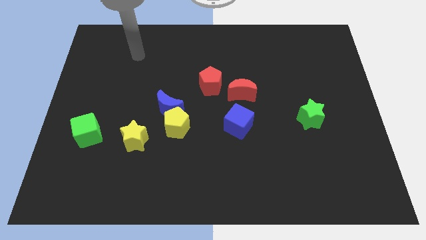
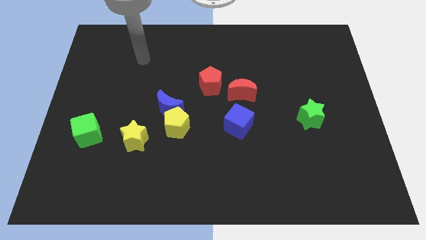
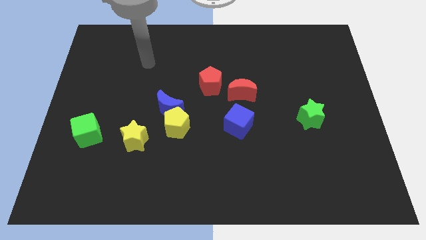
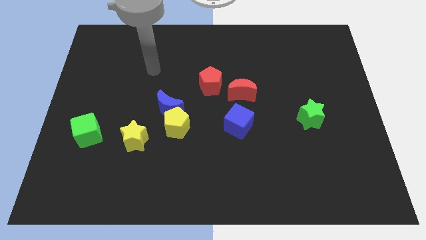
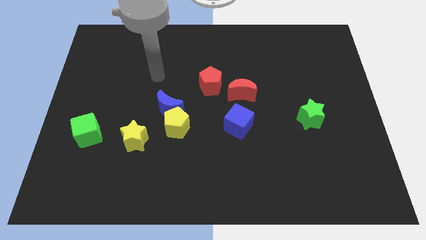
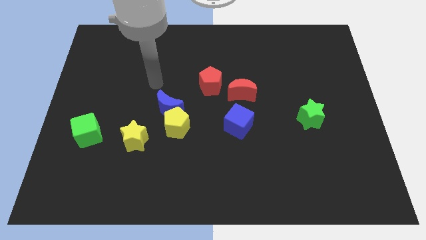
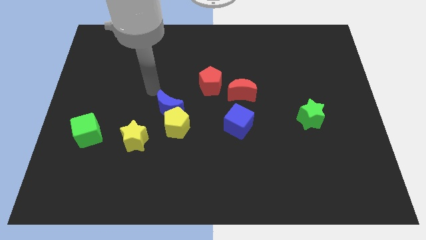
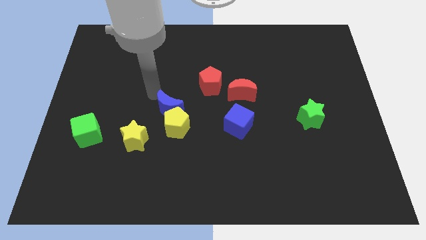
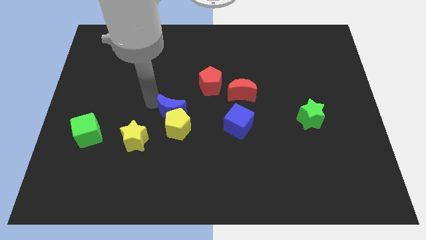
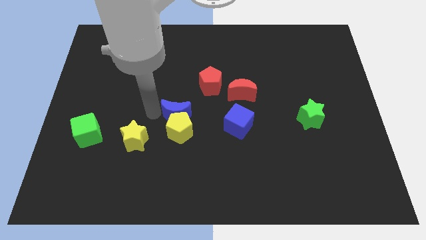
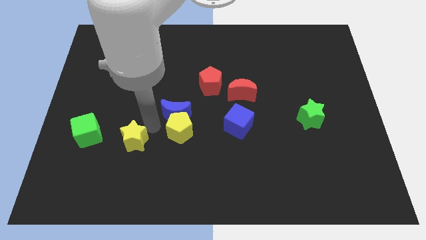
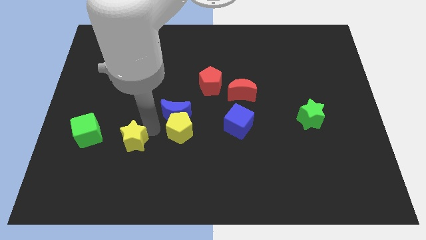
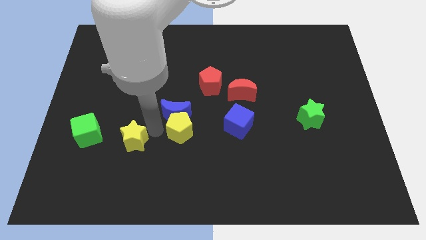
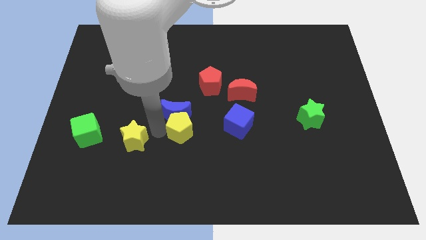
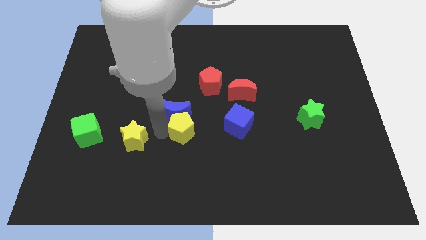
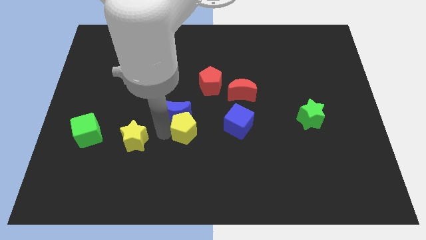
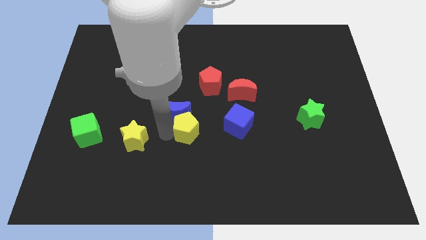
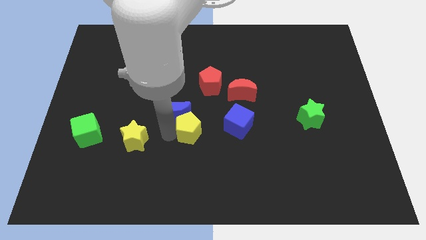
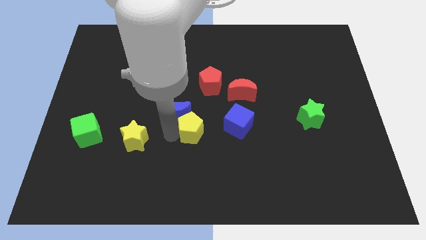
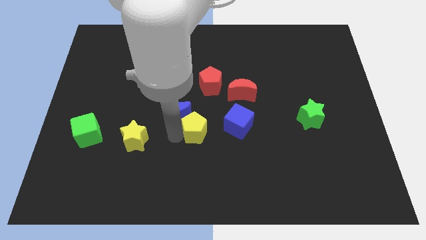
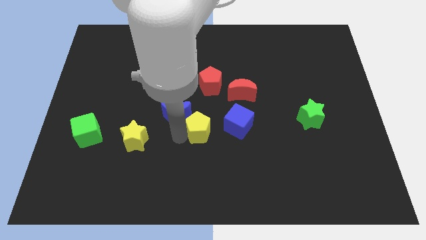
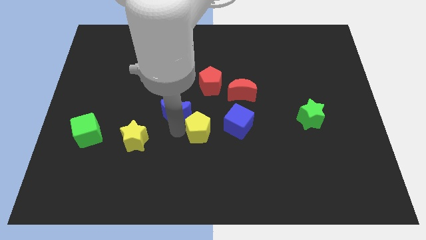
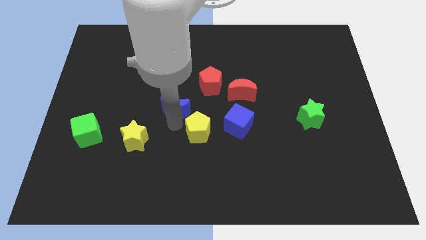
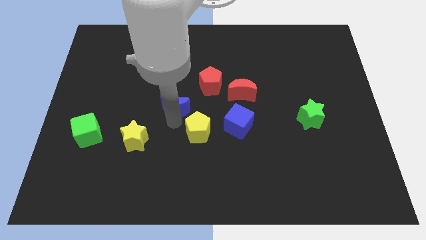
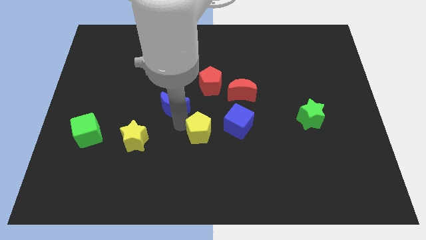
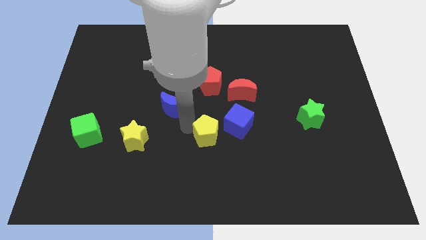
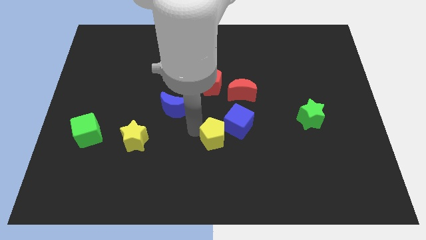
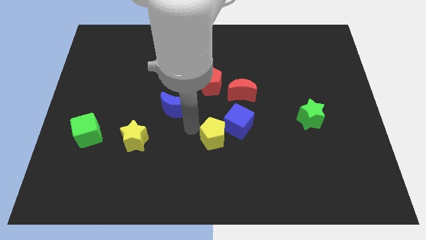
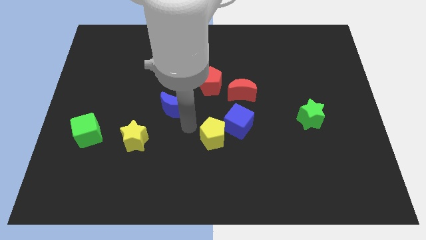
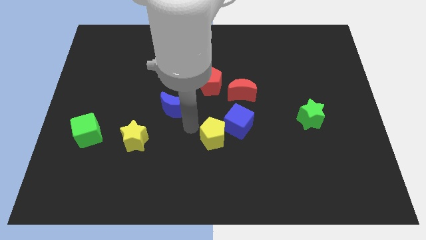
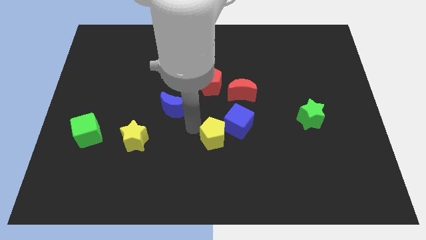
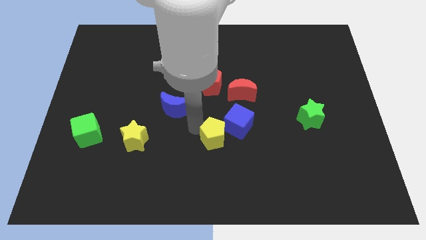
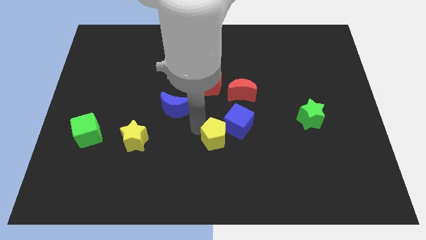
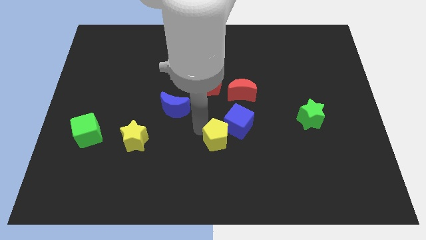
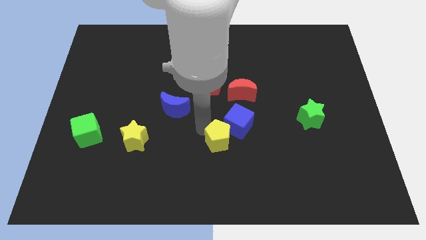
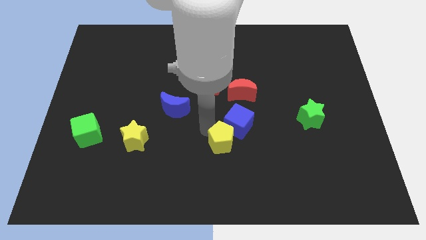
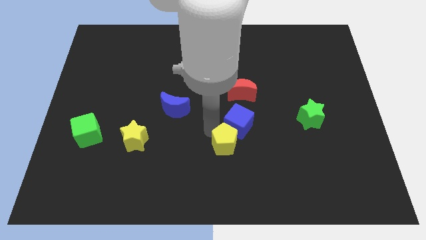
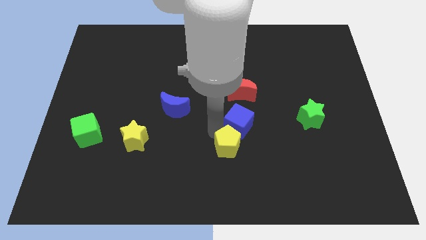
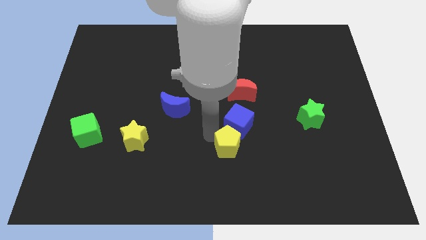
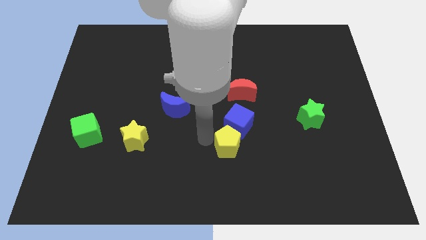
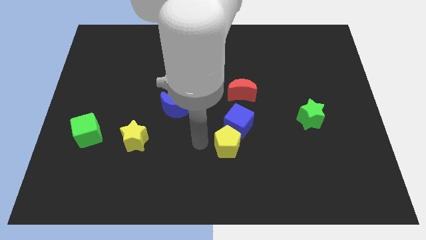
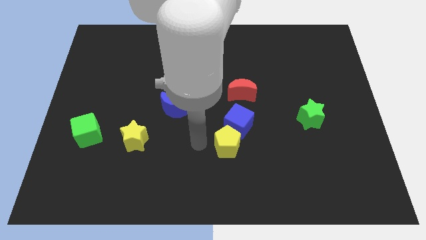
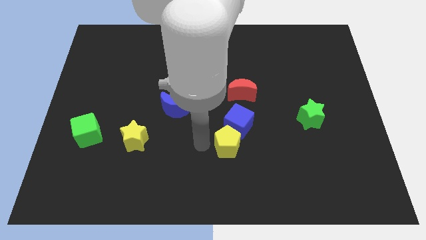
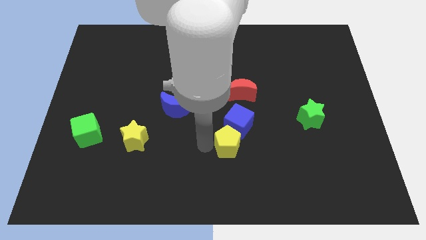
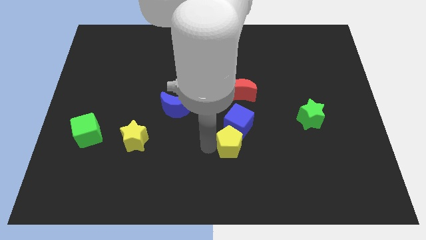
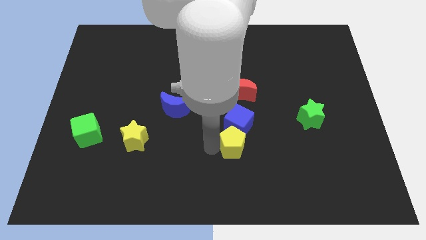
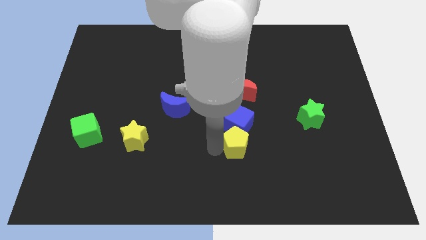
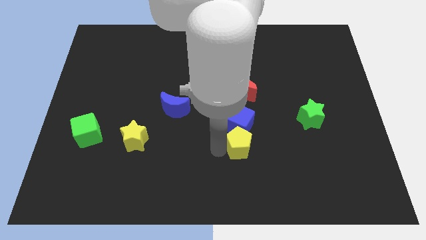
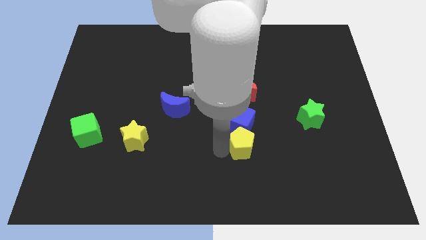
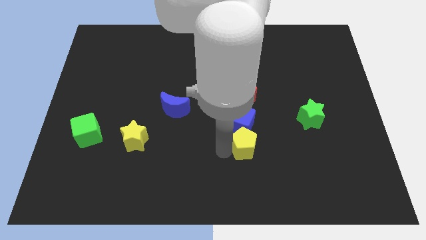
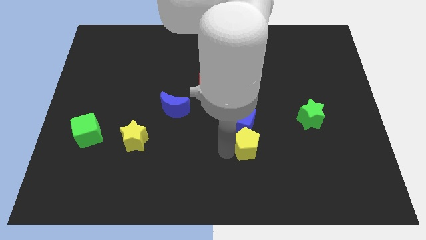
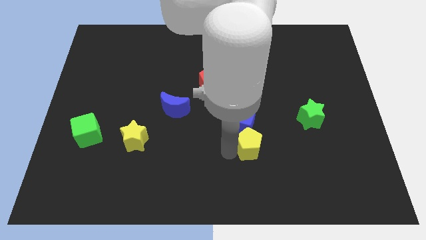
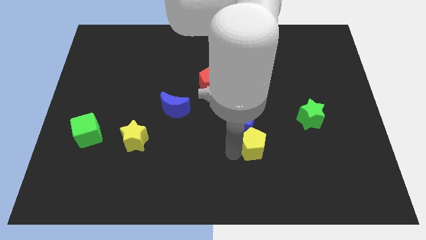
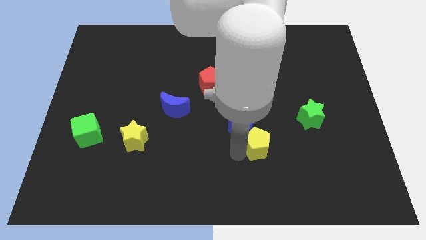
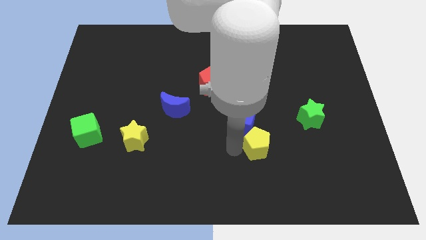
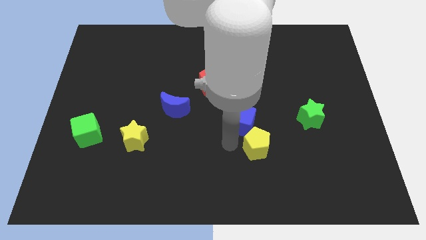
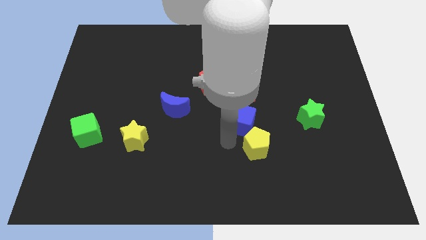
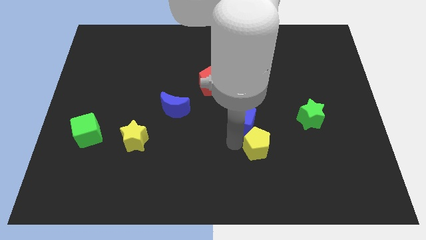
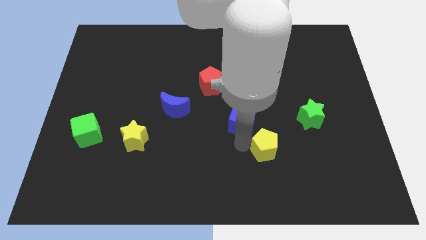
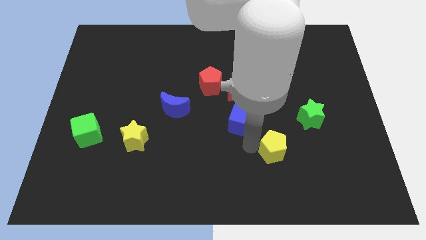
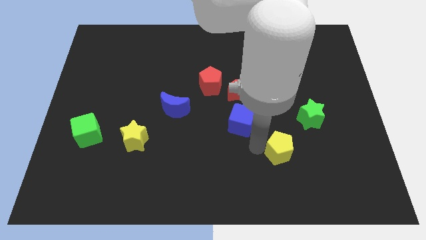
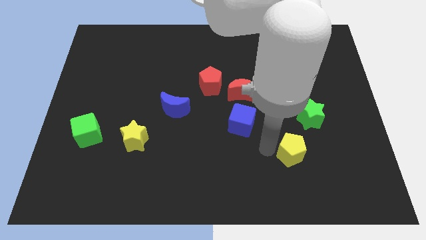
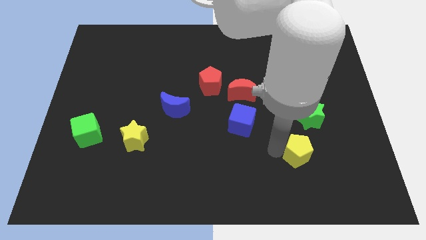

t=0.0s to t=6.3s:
move the yellow pentagon to the bottom of the green star
